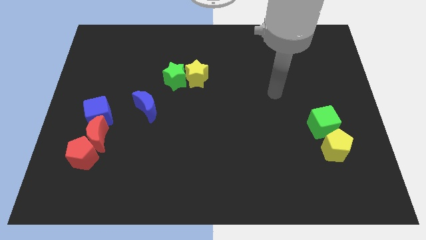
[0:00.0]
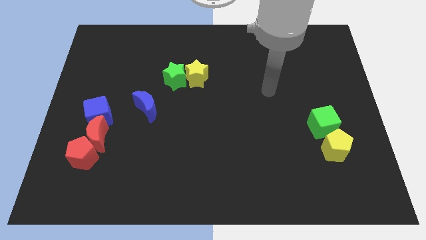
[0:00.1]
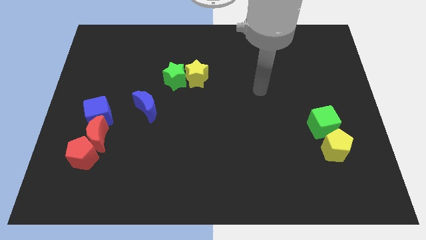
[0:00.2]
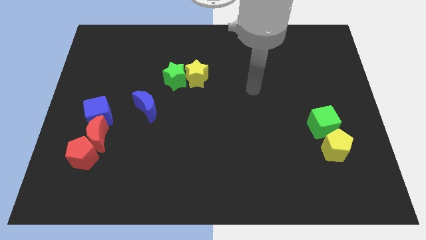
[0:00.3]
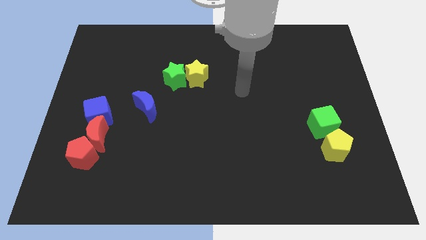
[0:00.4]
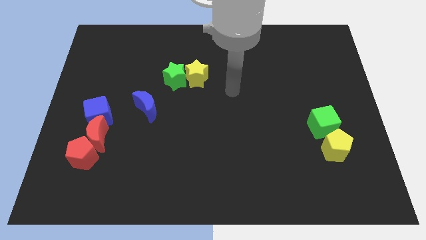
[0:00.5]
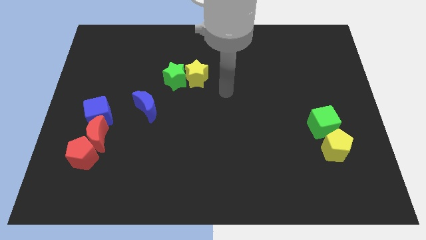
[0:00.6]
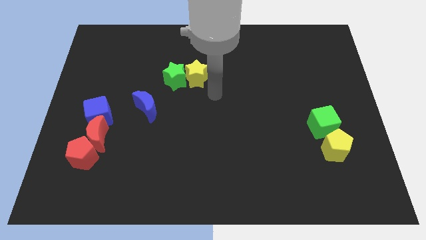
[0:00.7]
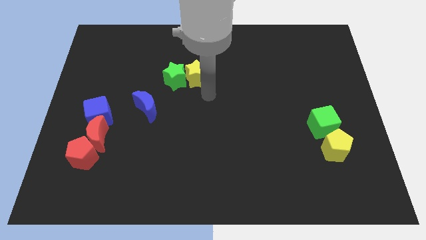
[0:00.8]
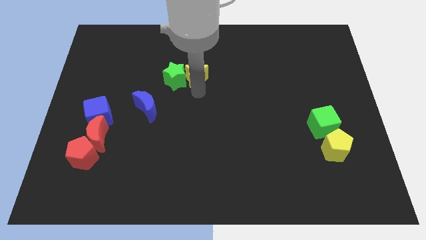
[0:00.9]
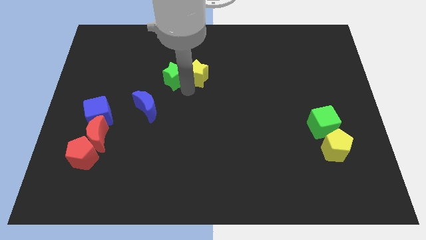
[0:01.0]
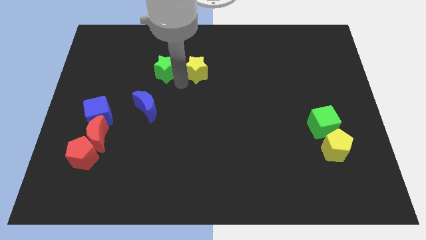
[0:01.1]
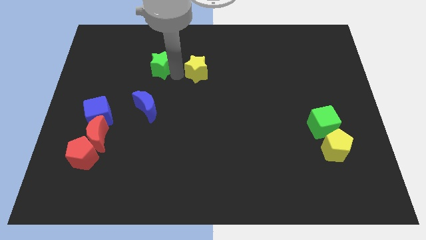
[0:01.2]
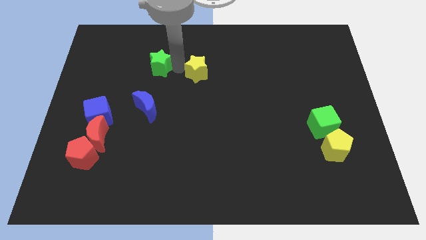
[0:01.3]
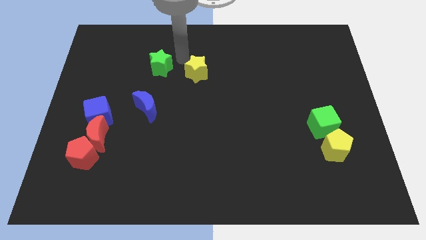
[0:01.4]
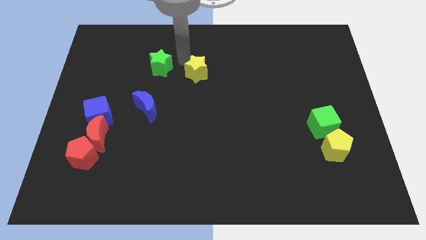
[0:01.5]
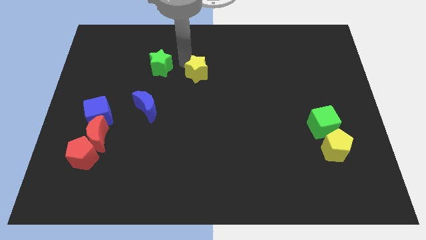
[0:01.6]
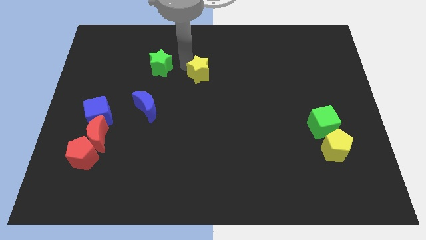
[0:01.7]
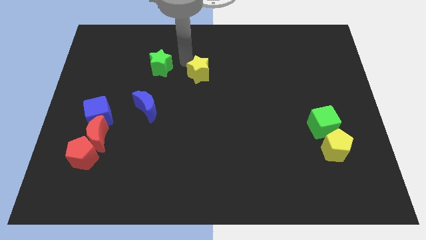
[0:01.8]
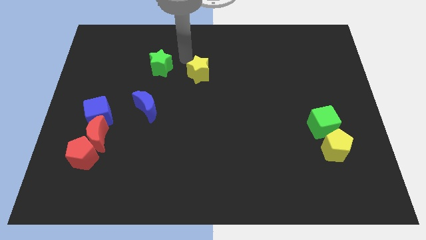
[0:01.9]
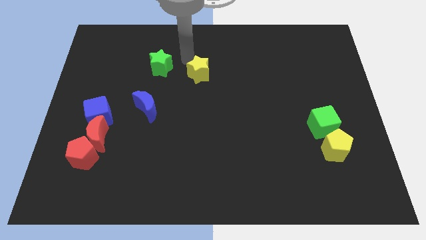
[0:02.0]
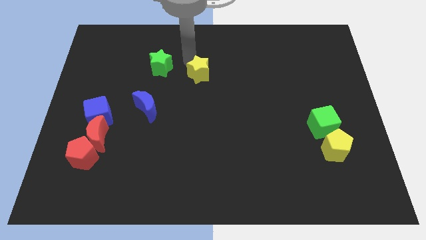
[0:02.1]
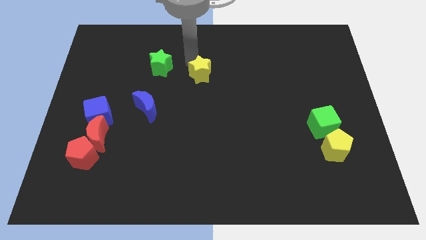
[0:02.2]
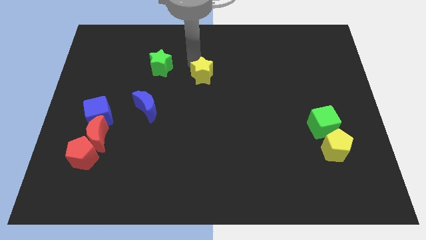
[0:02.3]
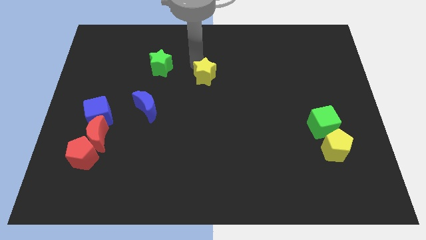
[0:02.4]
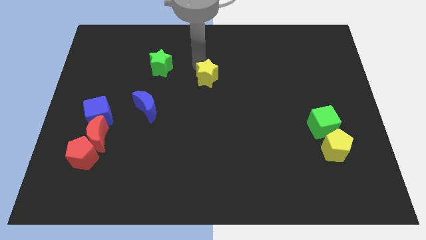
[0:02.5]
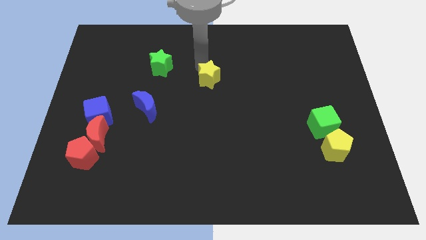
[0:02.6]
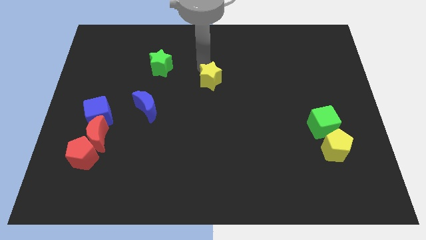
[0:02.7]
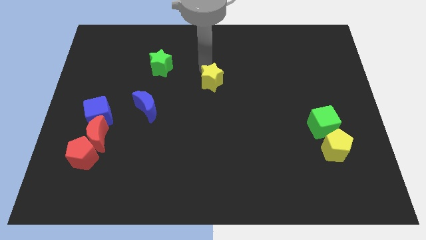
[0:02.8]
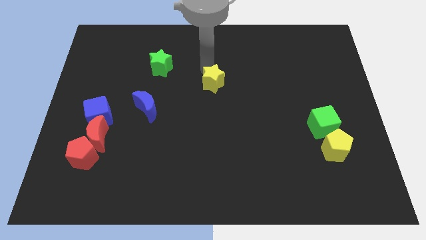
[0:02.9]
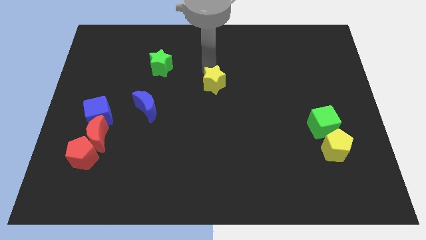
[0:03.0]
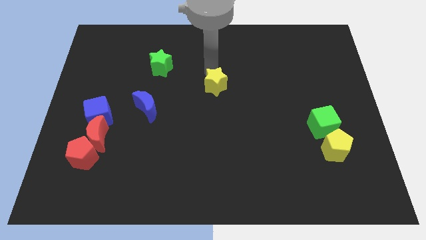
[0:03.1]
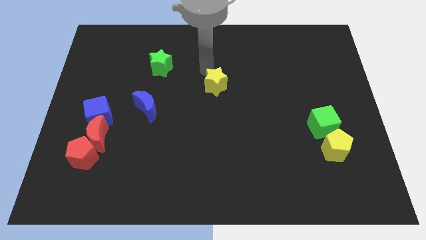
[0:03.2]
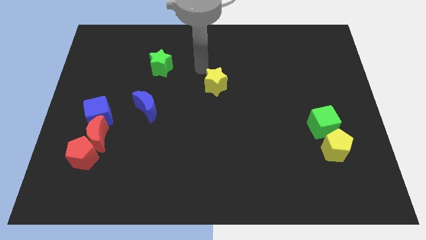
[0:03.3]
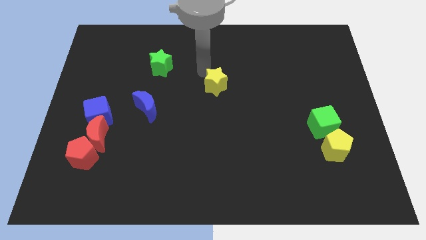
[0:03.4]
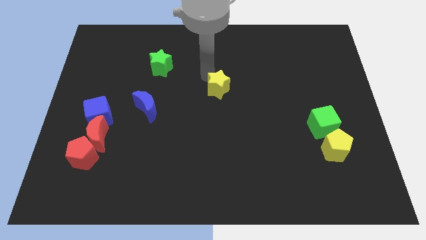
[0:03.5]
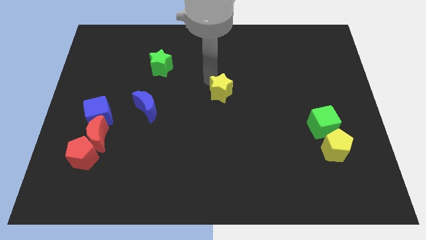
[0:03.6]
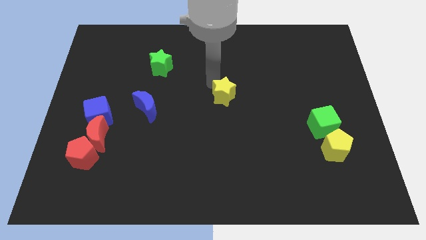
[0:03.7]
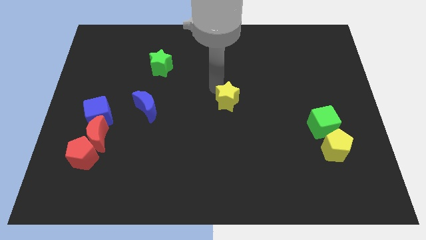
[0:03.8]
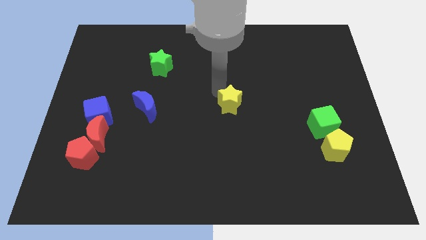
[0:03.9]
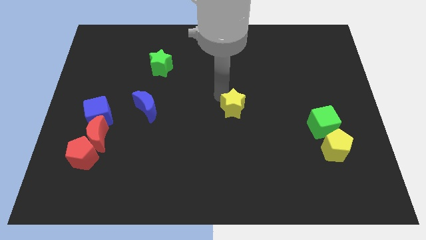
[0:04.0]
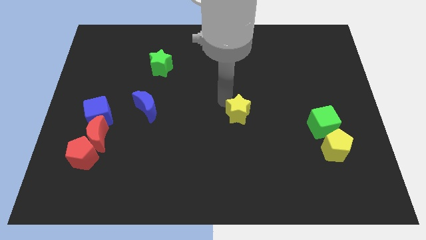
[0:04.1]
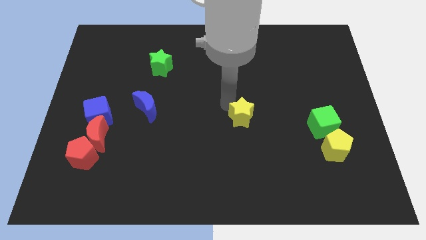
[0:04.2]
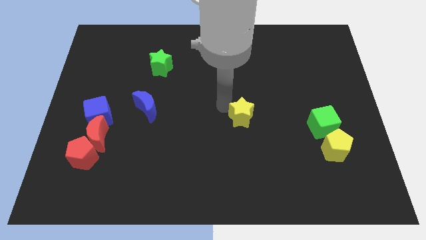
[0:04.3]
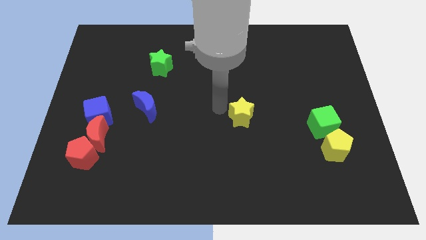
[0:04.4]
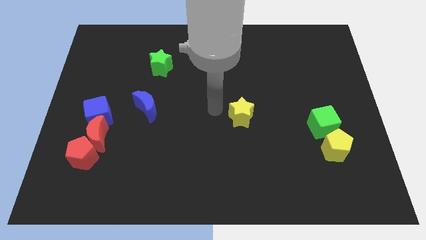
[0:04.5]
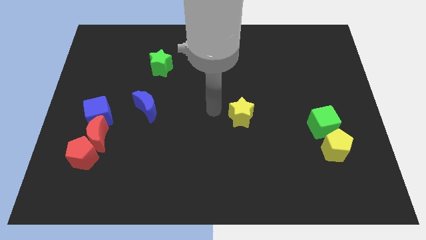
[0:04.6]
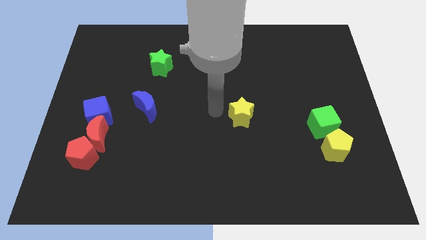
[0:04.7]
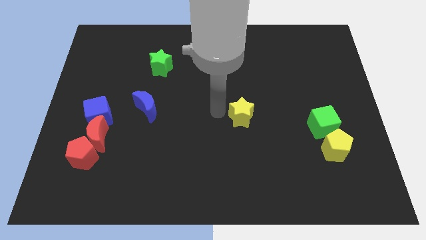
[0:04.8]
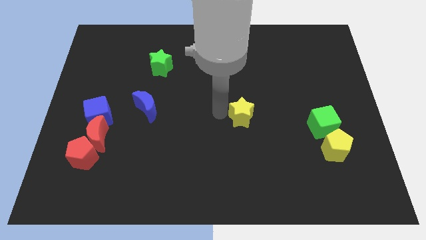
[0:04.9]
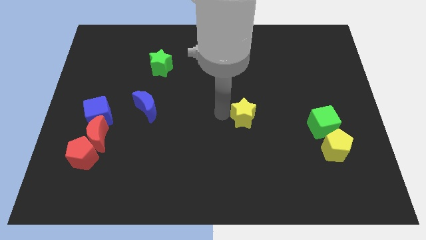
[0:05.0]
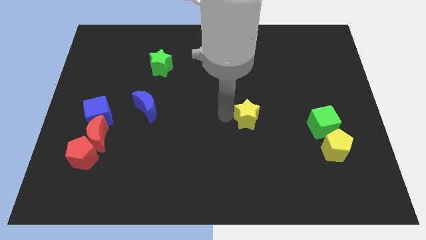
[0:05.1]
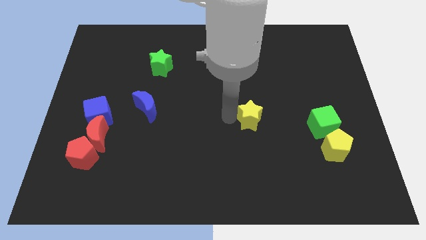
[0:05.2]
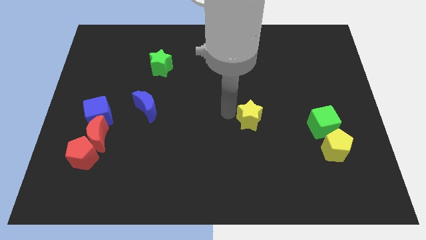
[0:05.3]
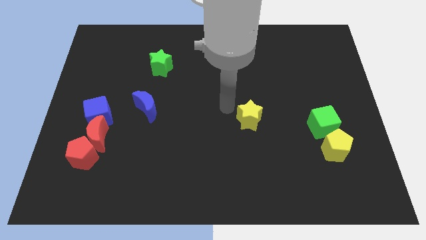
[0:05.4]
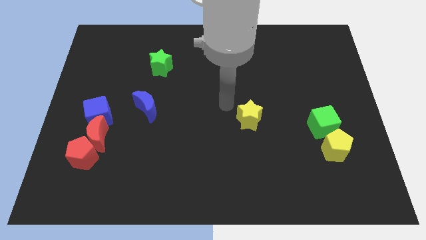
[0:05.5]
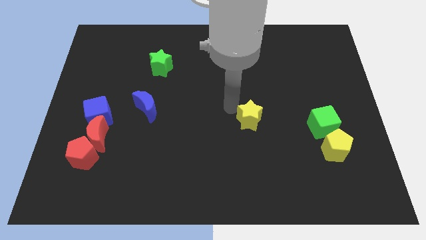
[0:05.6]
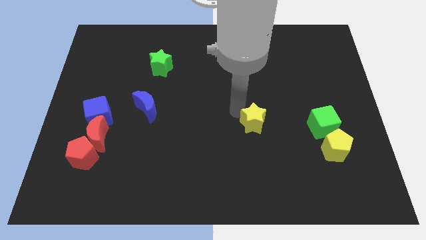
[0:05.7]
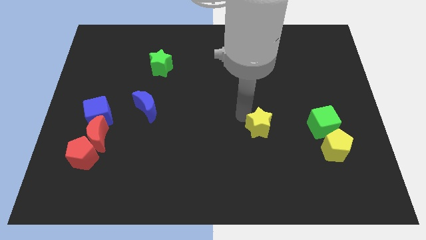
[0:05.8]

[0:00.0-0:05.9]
slide the yellow star downwards and right diagonally

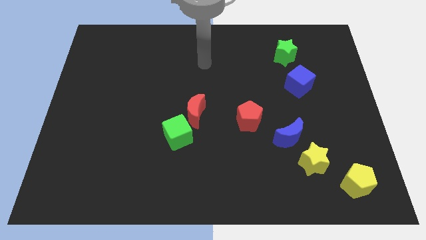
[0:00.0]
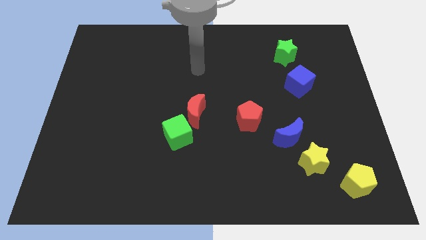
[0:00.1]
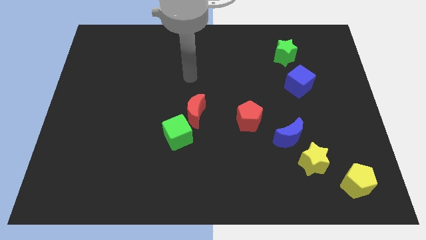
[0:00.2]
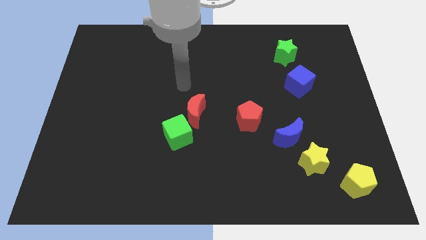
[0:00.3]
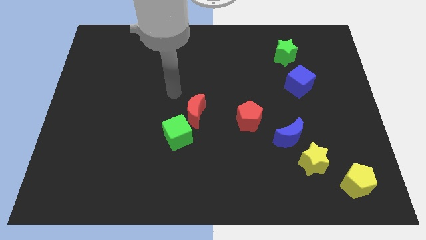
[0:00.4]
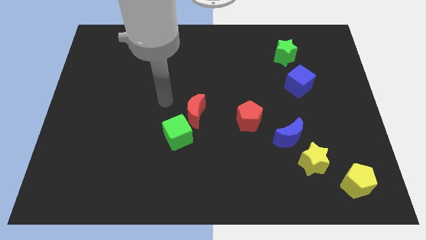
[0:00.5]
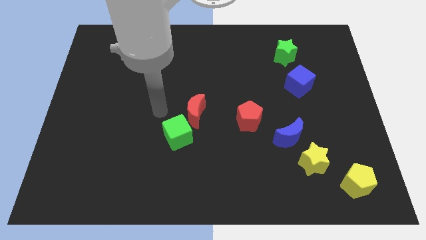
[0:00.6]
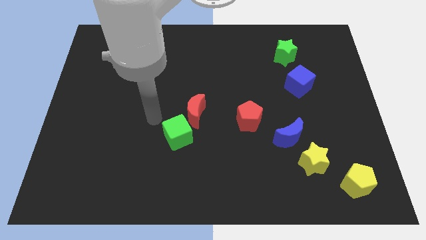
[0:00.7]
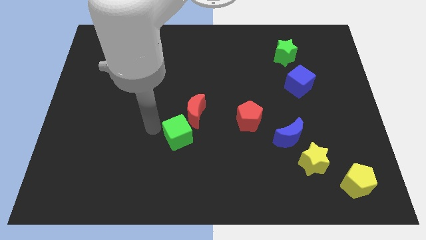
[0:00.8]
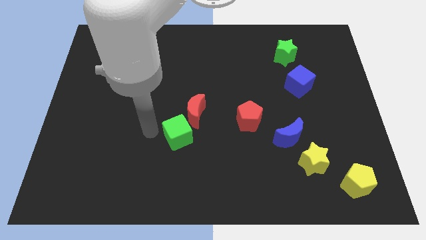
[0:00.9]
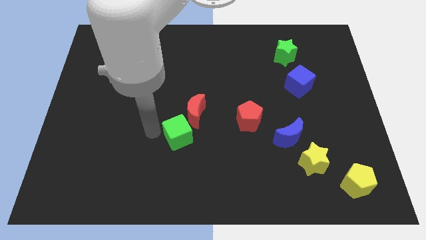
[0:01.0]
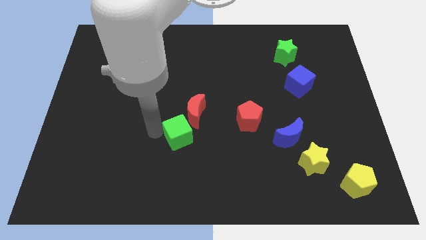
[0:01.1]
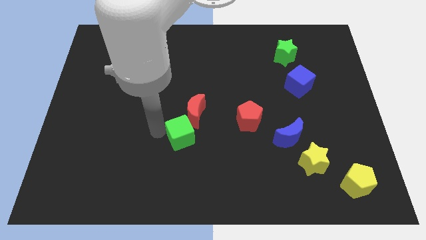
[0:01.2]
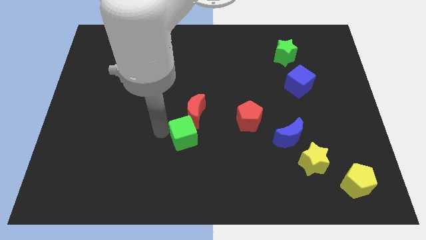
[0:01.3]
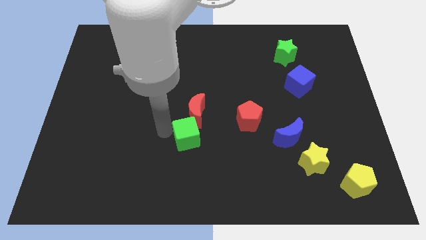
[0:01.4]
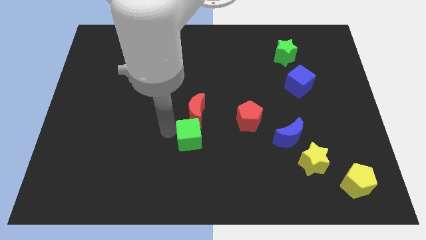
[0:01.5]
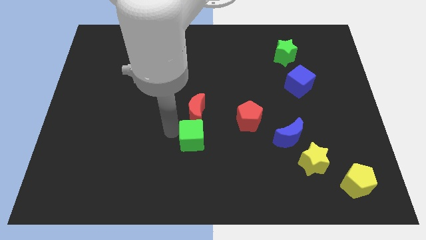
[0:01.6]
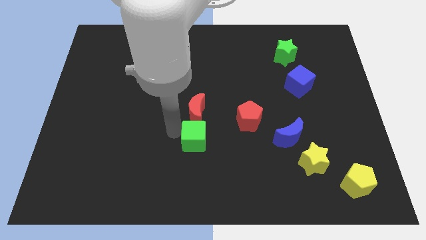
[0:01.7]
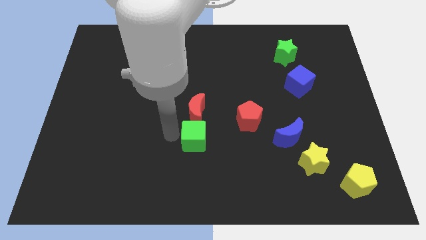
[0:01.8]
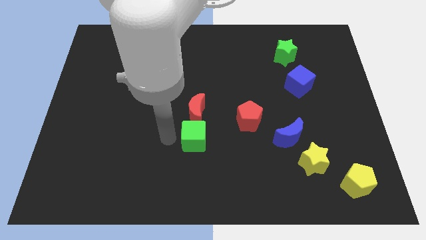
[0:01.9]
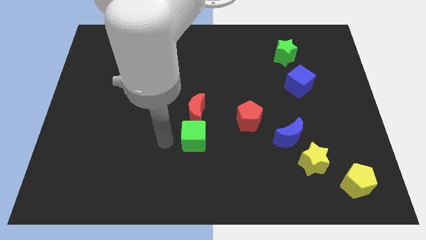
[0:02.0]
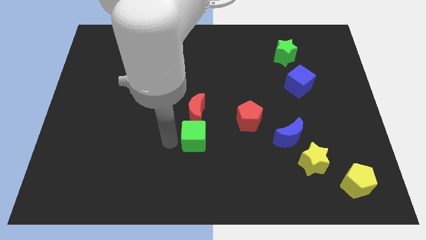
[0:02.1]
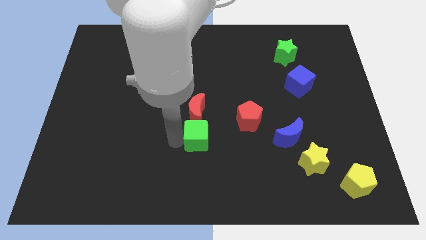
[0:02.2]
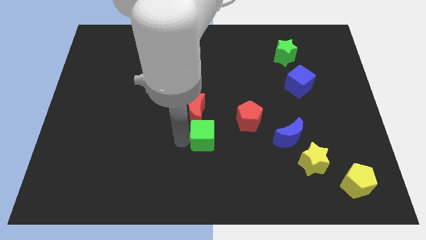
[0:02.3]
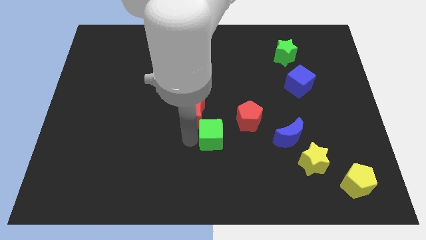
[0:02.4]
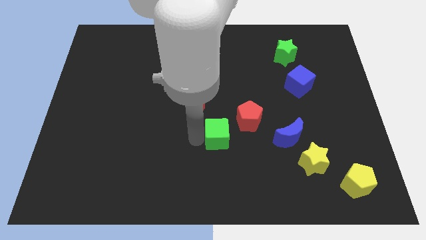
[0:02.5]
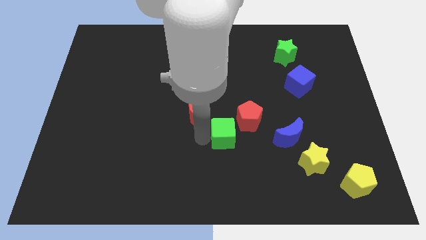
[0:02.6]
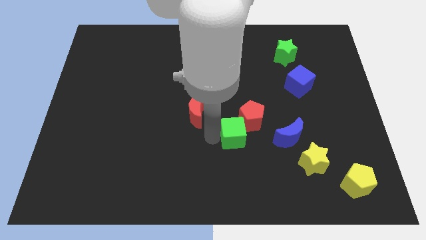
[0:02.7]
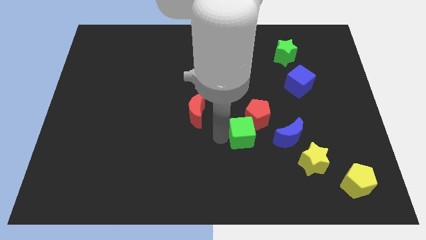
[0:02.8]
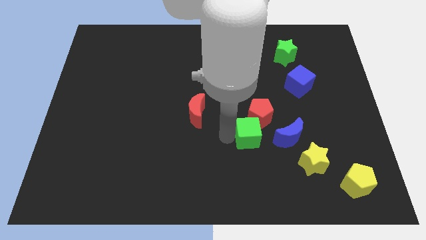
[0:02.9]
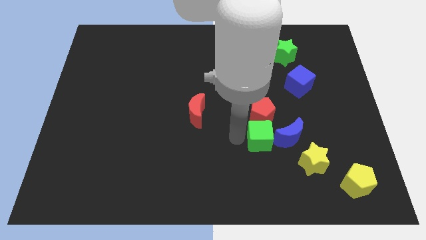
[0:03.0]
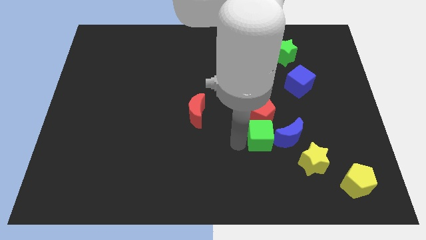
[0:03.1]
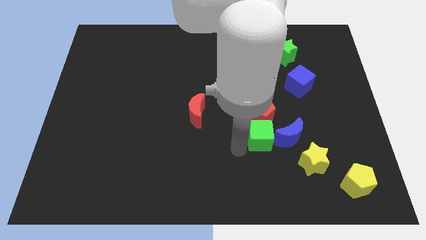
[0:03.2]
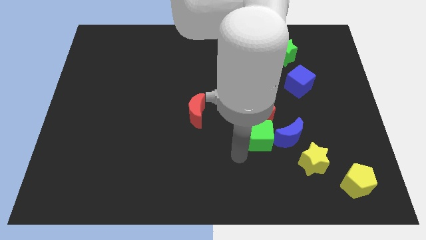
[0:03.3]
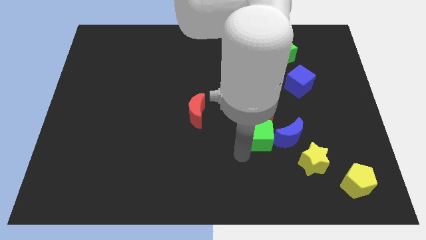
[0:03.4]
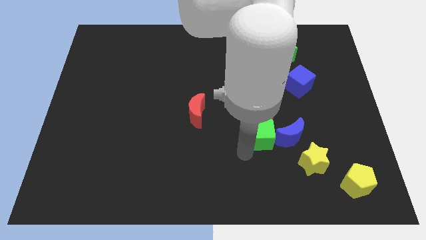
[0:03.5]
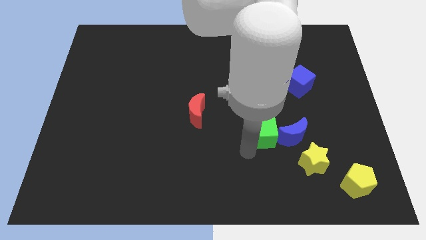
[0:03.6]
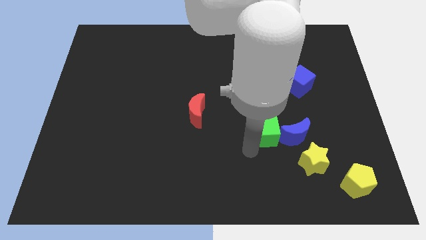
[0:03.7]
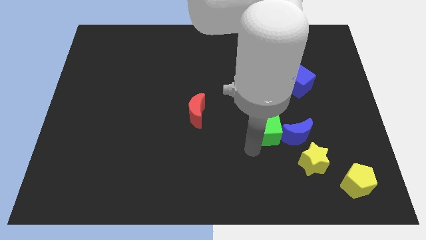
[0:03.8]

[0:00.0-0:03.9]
push the green cube right
